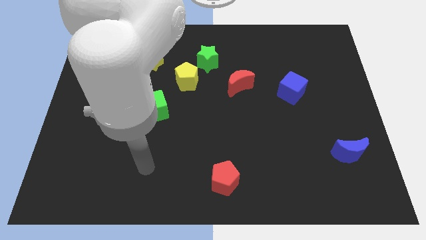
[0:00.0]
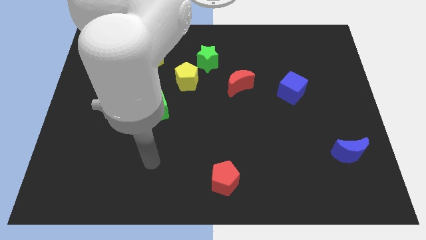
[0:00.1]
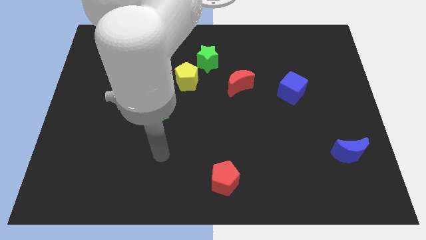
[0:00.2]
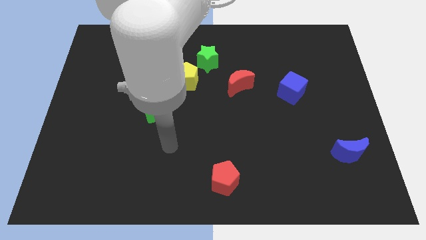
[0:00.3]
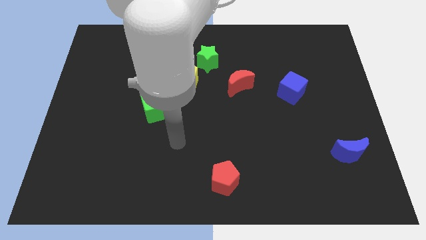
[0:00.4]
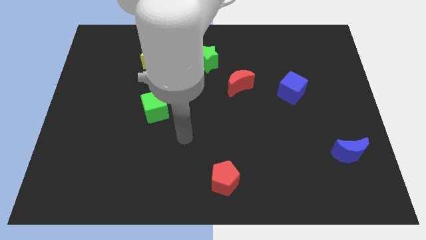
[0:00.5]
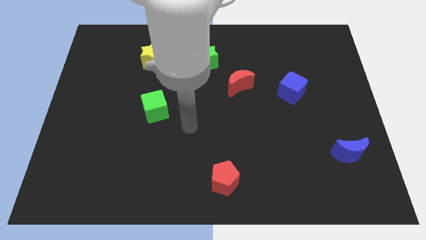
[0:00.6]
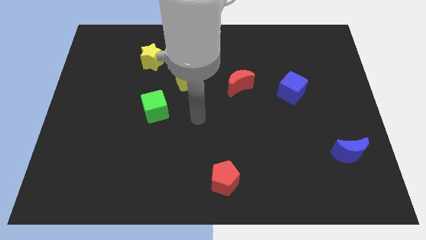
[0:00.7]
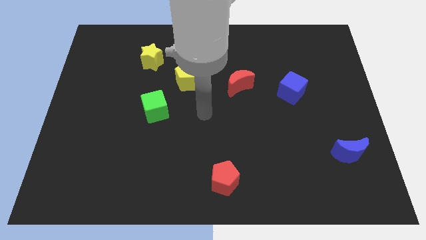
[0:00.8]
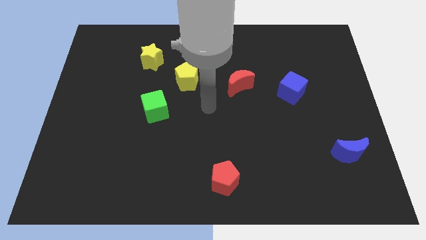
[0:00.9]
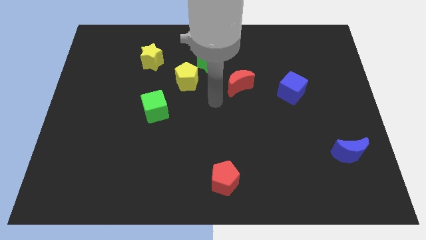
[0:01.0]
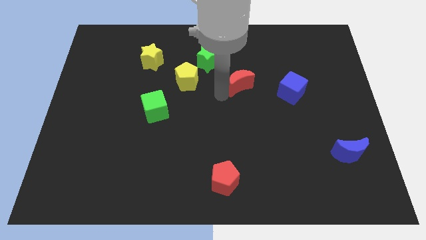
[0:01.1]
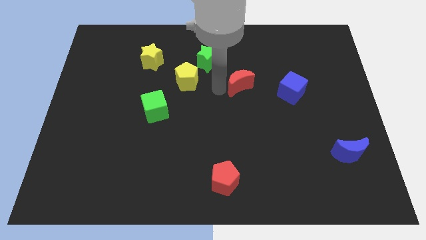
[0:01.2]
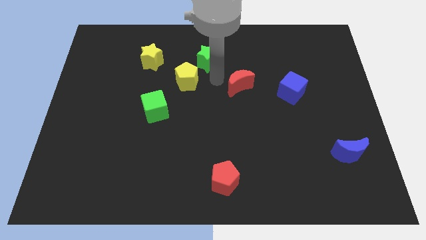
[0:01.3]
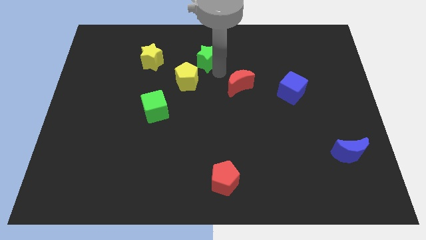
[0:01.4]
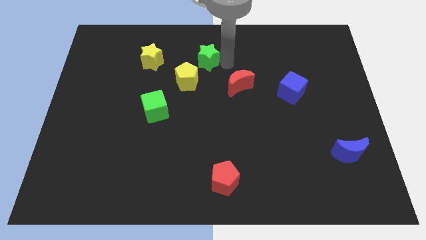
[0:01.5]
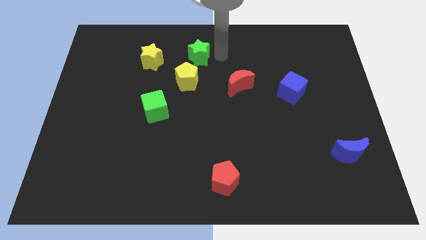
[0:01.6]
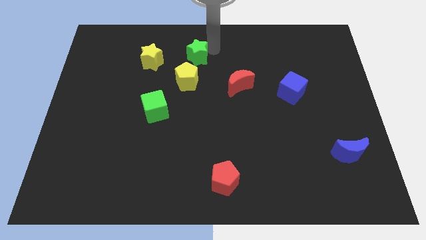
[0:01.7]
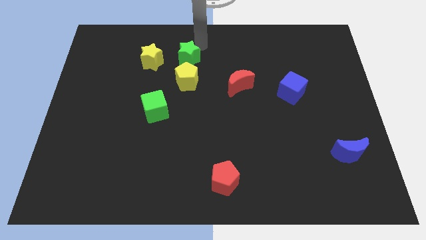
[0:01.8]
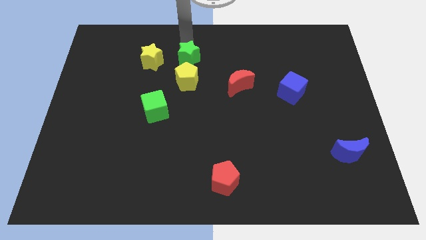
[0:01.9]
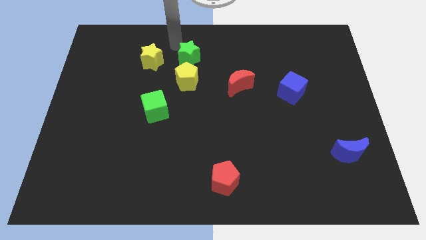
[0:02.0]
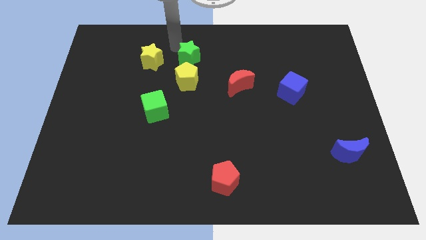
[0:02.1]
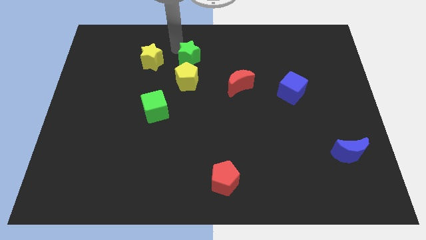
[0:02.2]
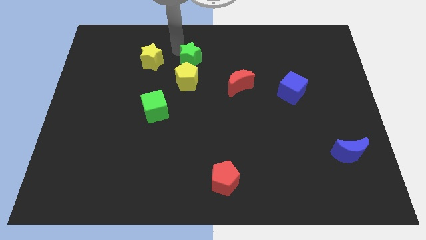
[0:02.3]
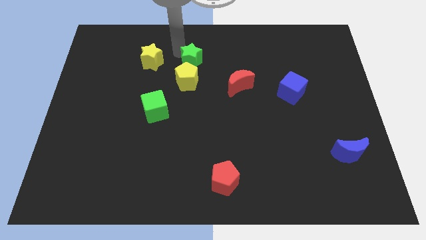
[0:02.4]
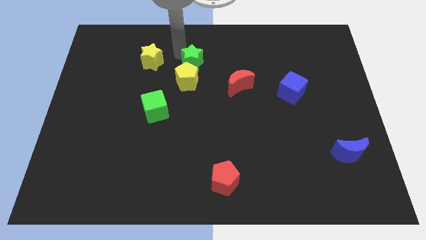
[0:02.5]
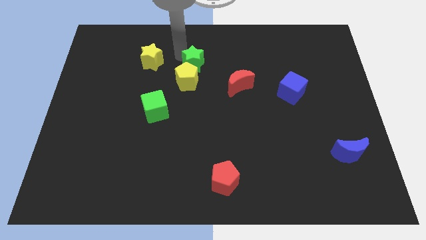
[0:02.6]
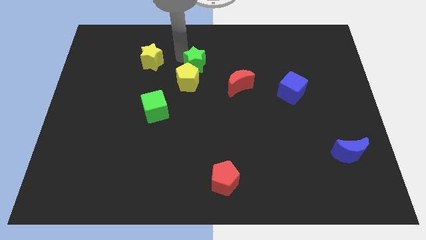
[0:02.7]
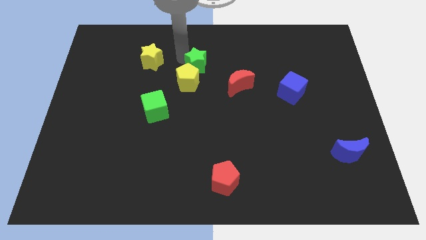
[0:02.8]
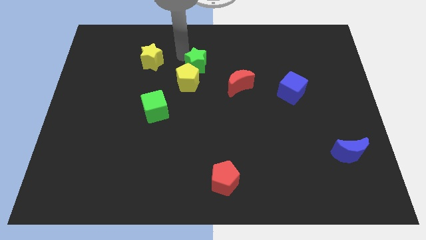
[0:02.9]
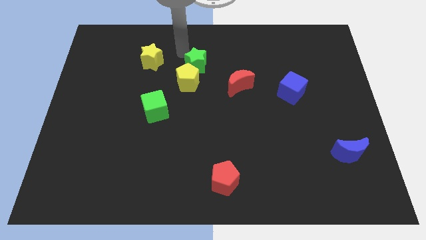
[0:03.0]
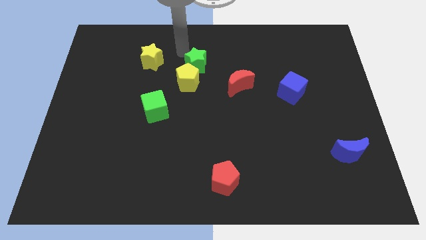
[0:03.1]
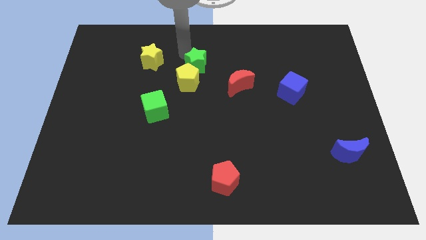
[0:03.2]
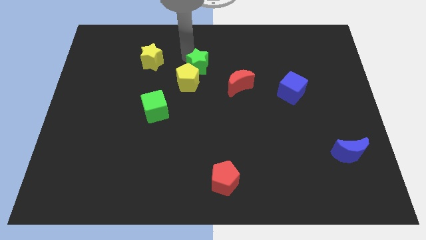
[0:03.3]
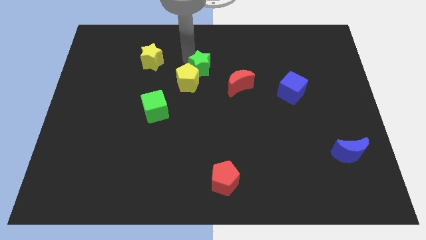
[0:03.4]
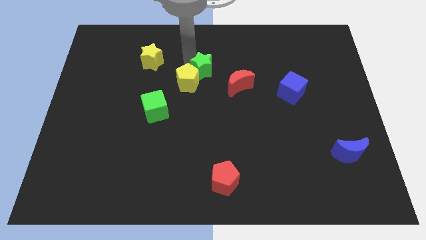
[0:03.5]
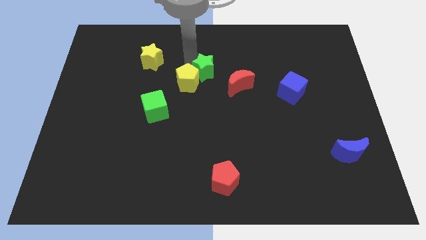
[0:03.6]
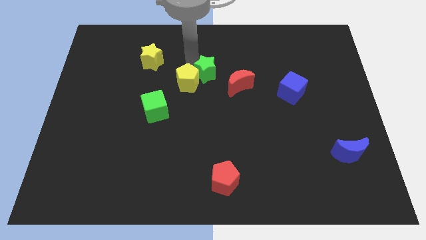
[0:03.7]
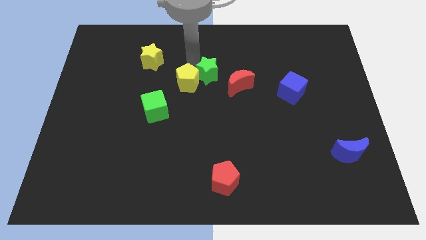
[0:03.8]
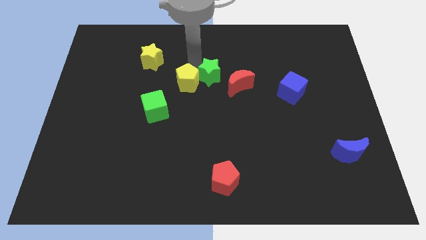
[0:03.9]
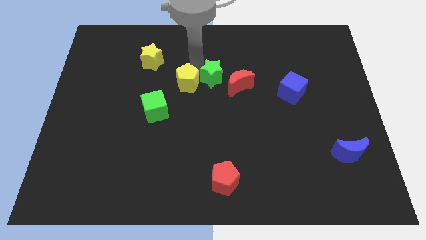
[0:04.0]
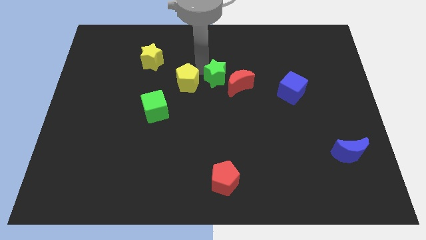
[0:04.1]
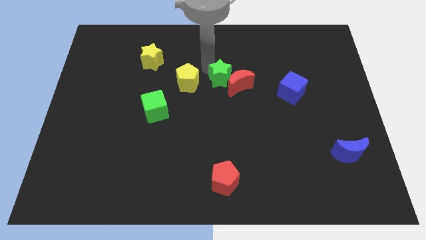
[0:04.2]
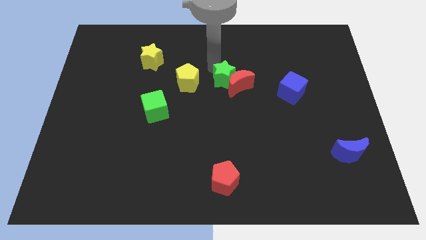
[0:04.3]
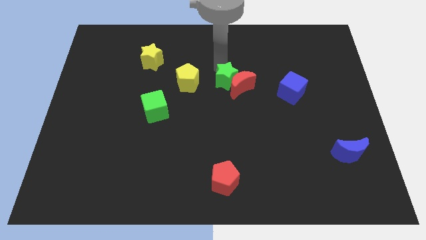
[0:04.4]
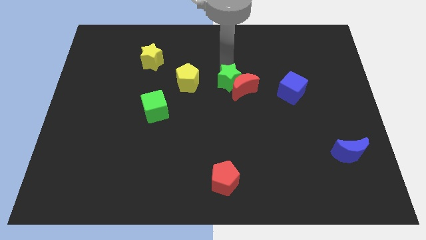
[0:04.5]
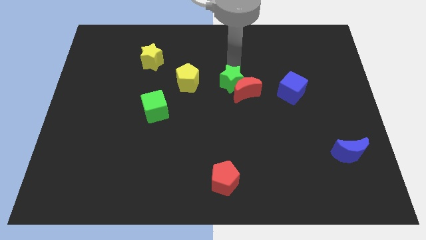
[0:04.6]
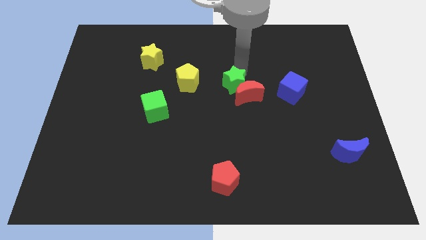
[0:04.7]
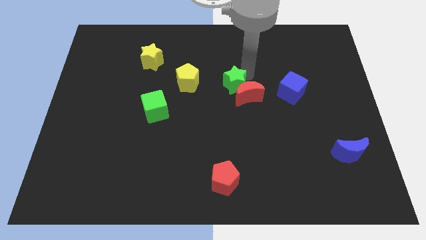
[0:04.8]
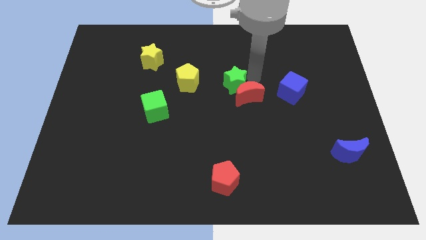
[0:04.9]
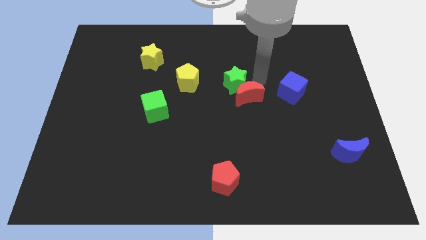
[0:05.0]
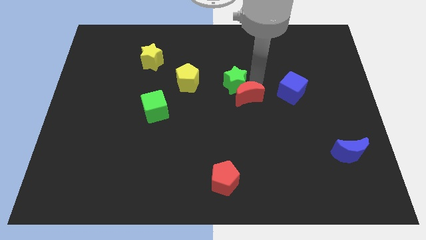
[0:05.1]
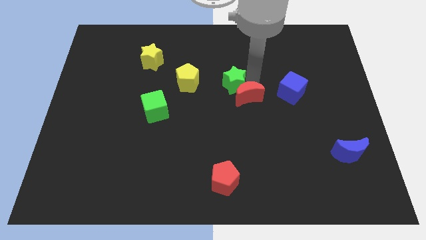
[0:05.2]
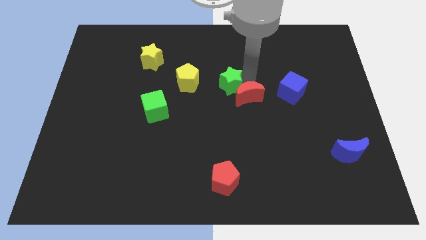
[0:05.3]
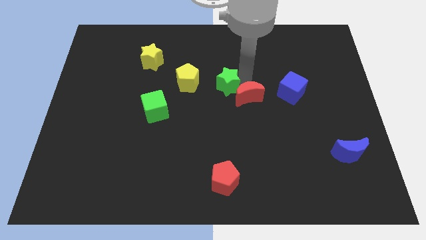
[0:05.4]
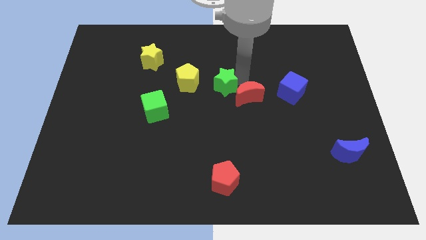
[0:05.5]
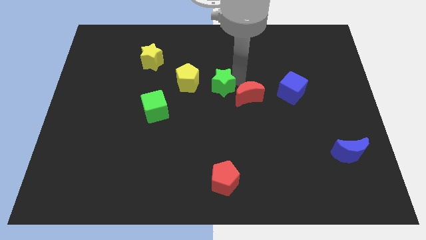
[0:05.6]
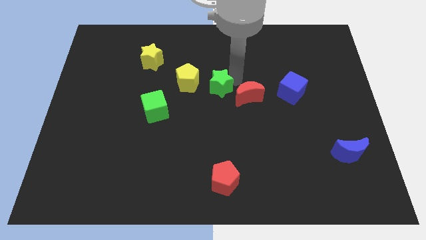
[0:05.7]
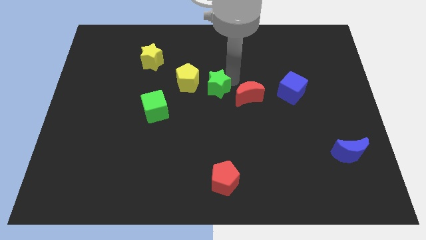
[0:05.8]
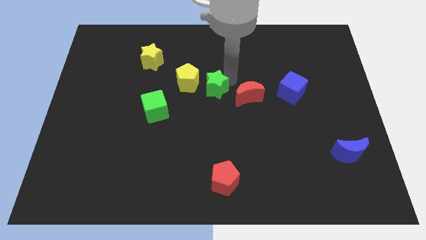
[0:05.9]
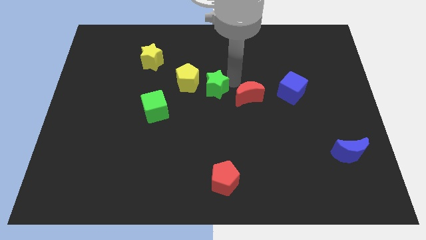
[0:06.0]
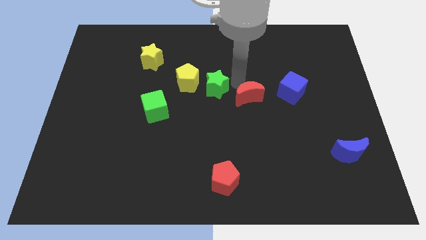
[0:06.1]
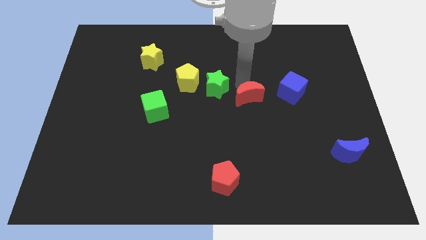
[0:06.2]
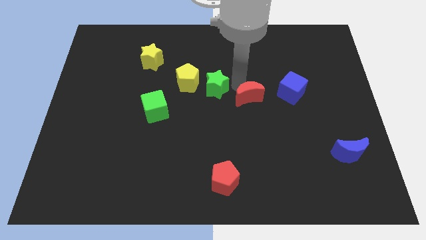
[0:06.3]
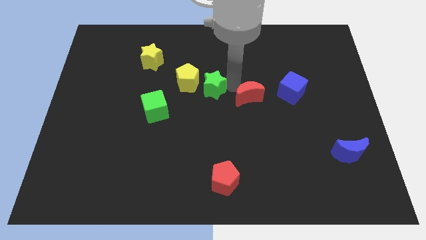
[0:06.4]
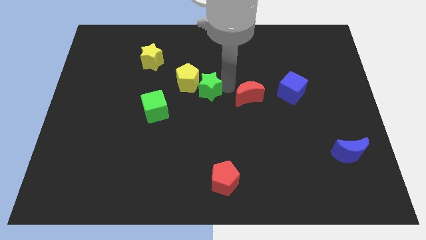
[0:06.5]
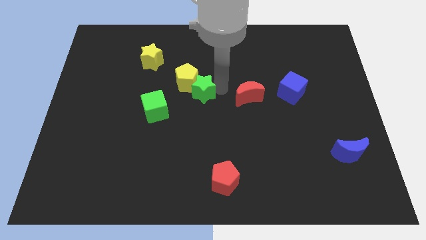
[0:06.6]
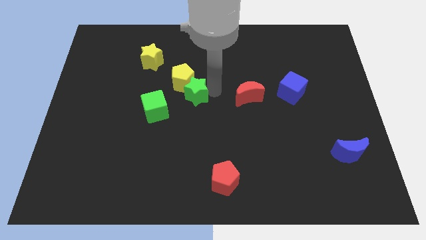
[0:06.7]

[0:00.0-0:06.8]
slide the green star to the top right of the green cube
